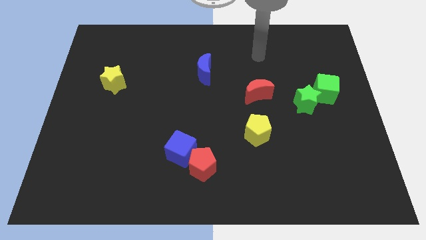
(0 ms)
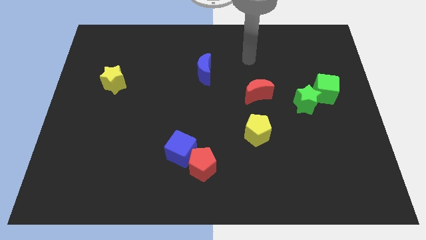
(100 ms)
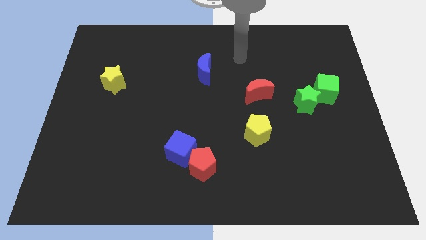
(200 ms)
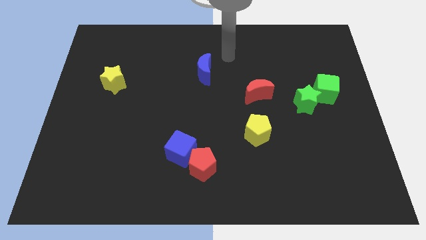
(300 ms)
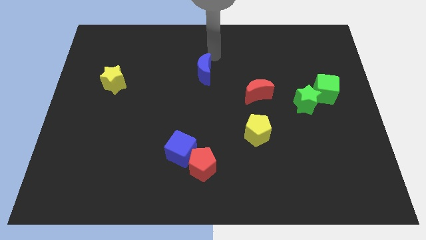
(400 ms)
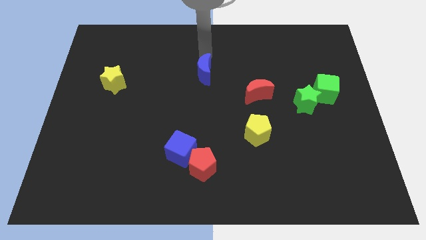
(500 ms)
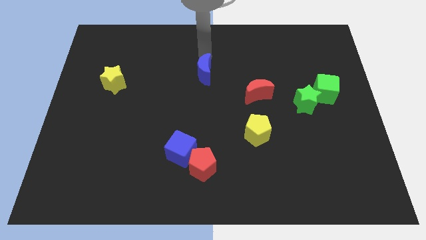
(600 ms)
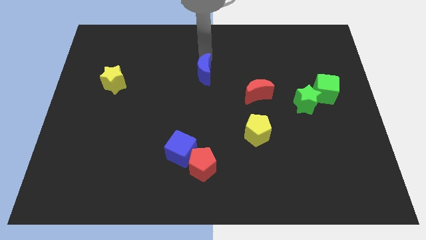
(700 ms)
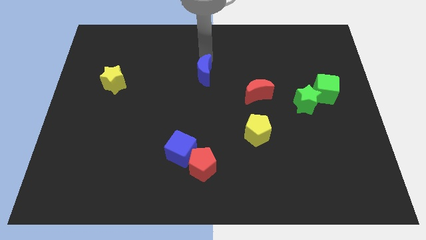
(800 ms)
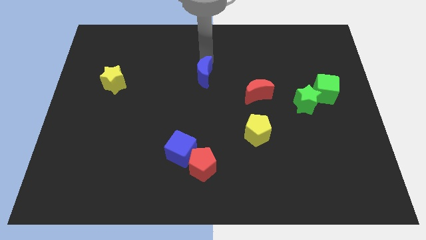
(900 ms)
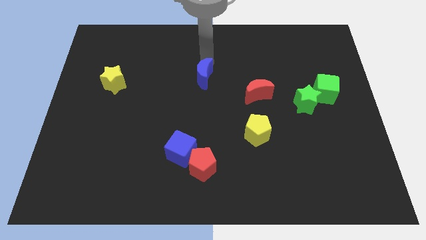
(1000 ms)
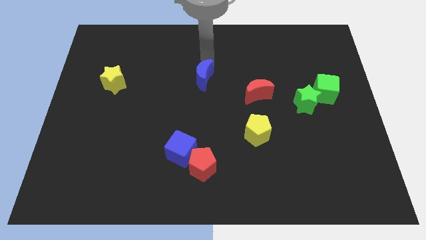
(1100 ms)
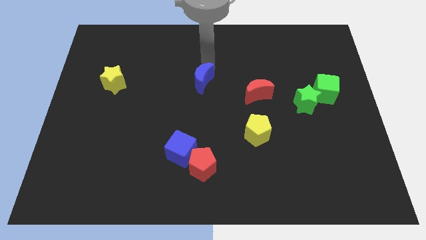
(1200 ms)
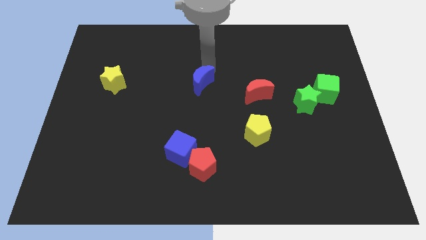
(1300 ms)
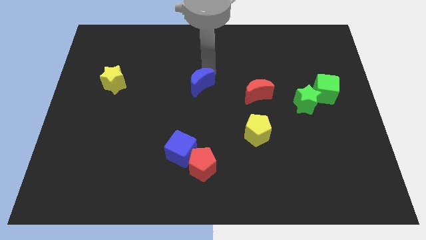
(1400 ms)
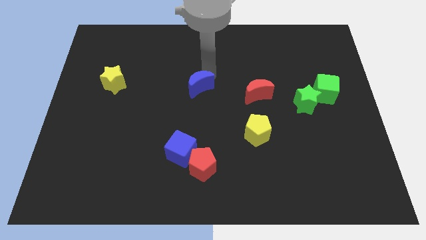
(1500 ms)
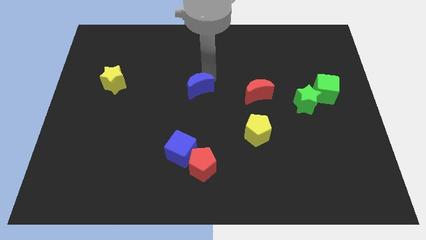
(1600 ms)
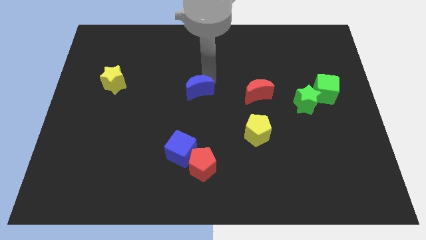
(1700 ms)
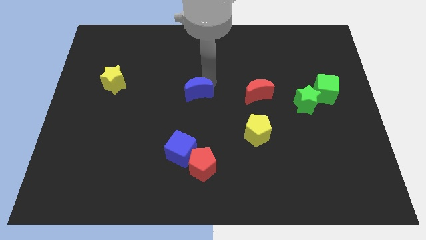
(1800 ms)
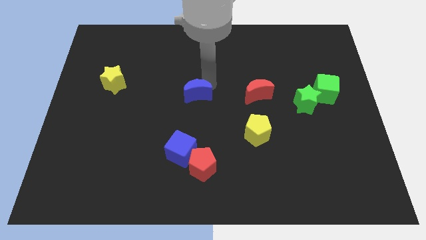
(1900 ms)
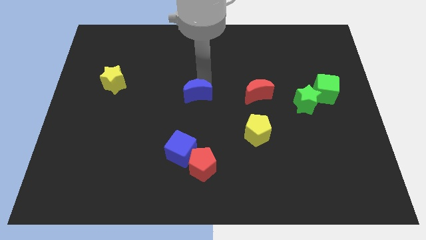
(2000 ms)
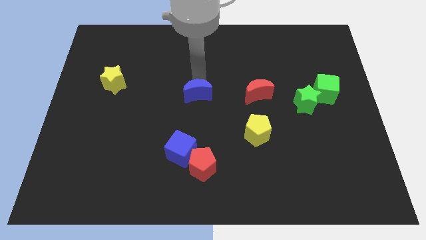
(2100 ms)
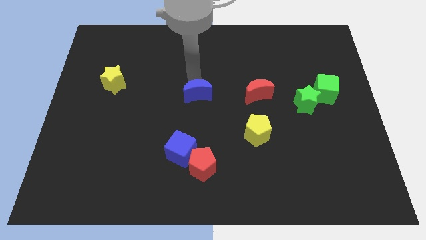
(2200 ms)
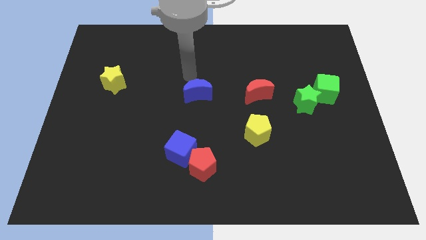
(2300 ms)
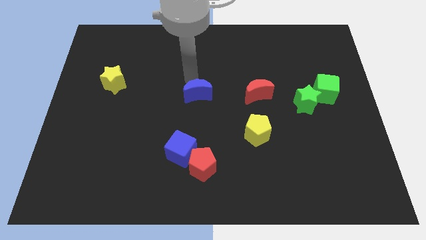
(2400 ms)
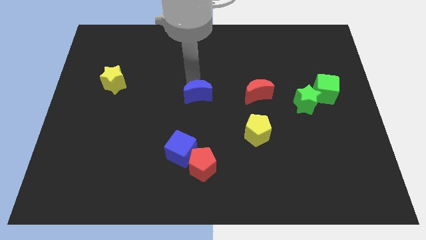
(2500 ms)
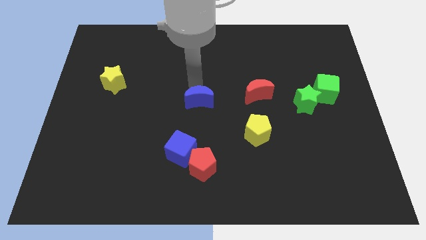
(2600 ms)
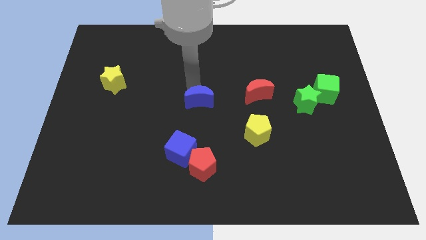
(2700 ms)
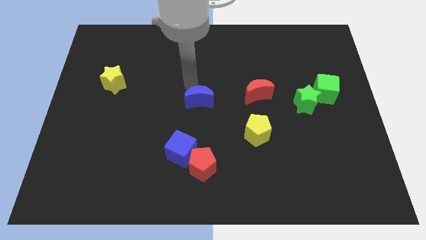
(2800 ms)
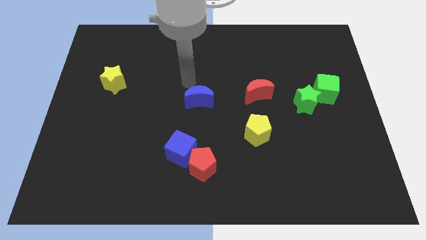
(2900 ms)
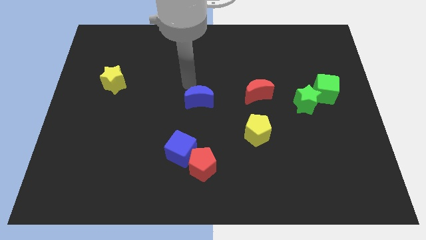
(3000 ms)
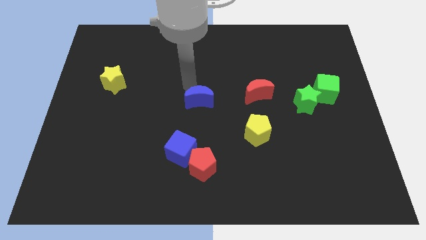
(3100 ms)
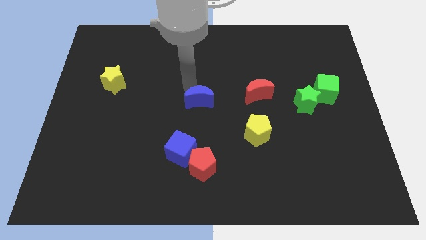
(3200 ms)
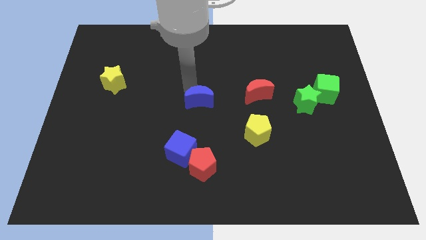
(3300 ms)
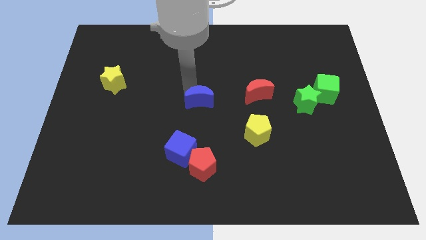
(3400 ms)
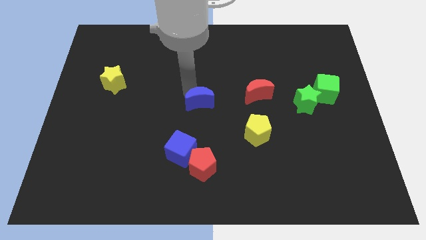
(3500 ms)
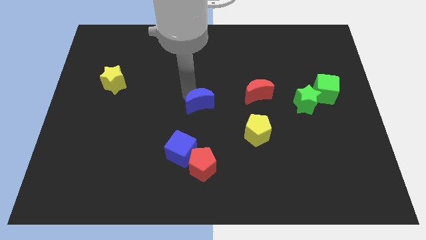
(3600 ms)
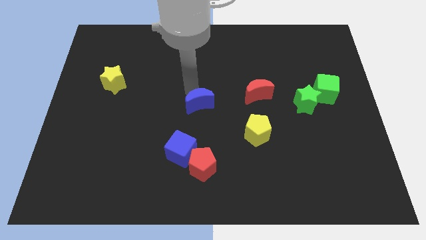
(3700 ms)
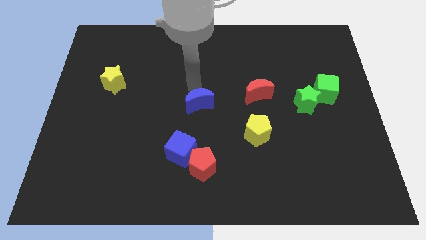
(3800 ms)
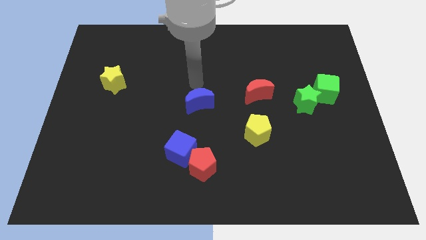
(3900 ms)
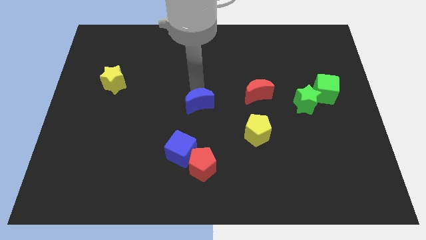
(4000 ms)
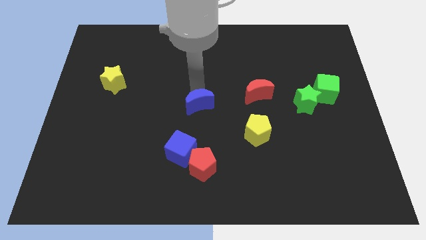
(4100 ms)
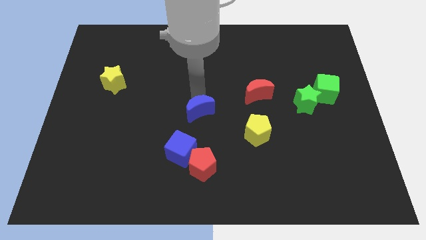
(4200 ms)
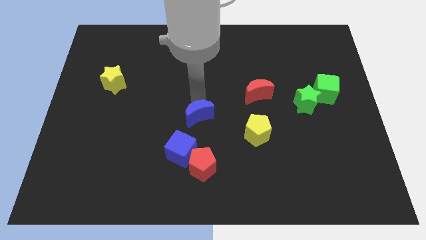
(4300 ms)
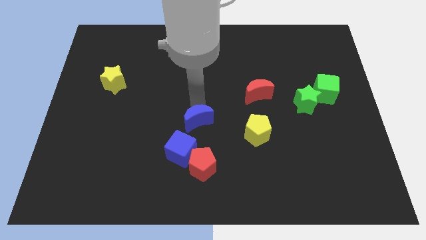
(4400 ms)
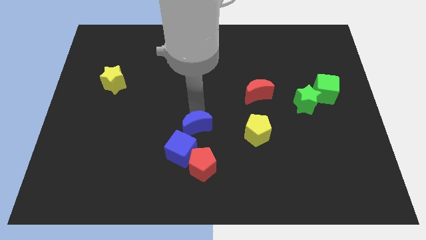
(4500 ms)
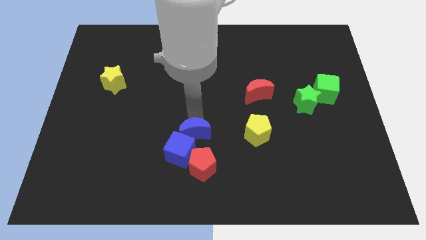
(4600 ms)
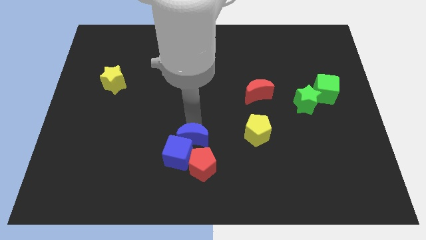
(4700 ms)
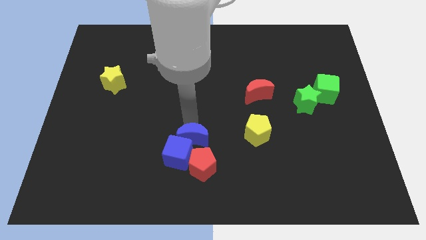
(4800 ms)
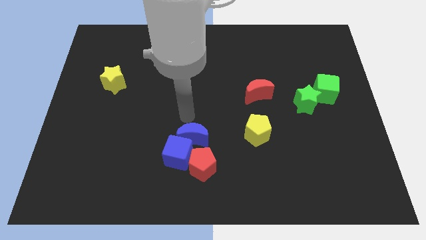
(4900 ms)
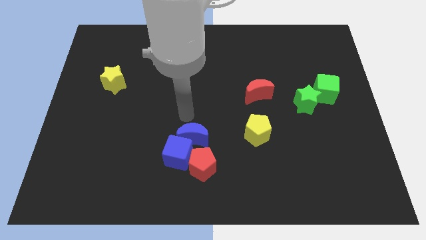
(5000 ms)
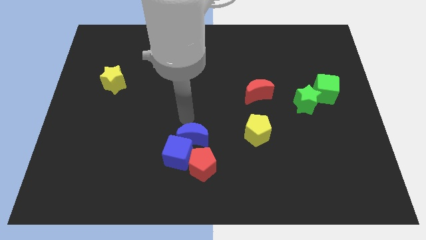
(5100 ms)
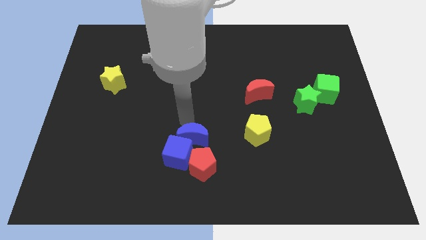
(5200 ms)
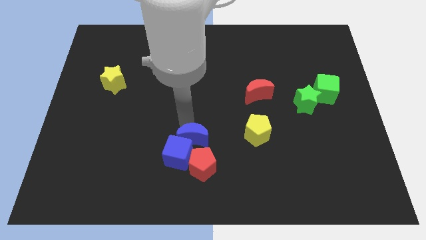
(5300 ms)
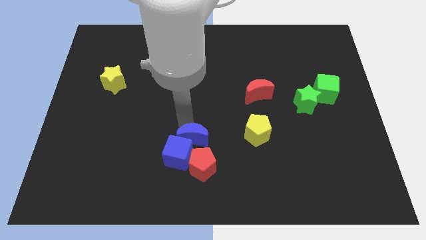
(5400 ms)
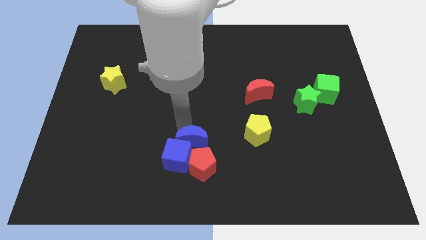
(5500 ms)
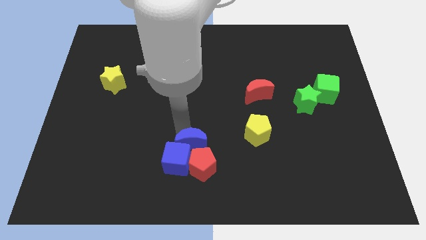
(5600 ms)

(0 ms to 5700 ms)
slide the blue moon next to the red pentagon

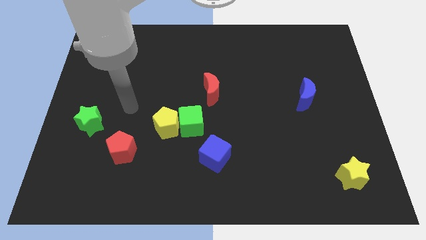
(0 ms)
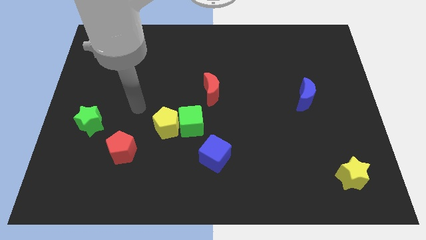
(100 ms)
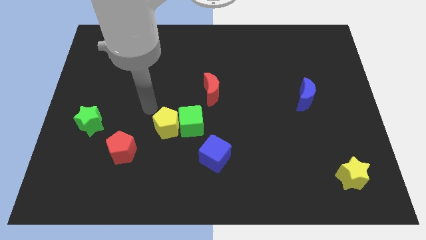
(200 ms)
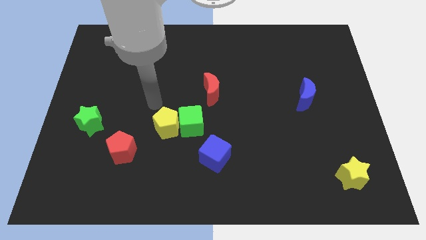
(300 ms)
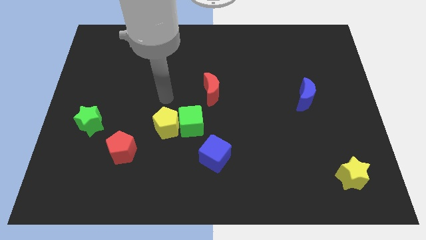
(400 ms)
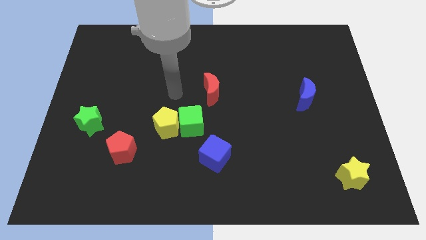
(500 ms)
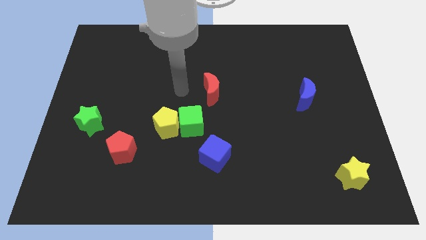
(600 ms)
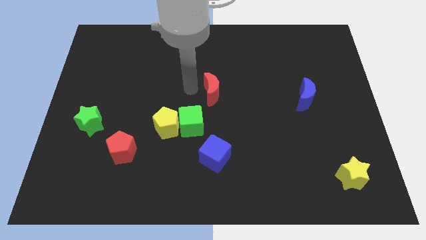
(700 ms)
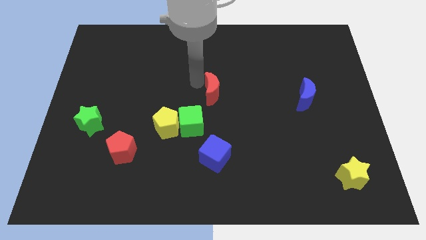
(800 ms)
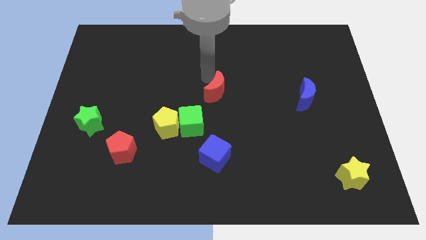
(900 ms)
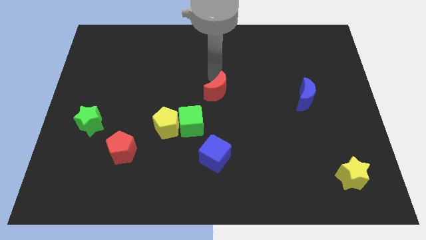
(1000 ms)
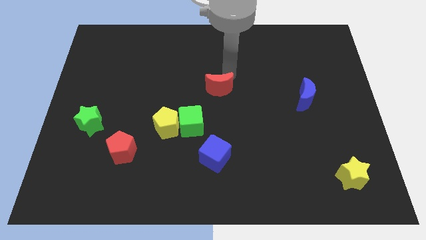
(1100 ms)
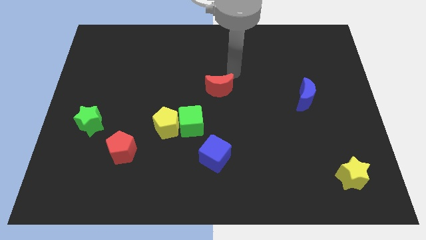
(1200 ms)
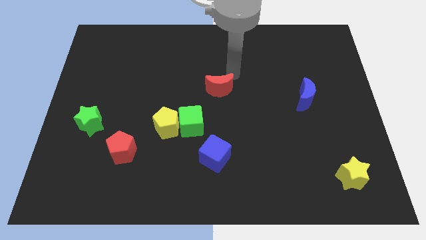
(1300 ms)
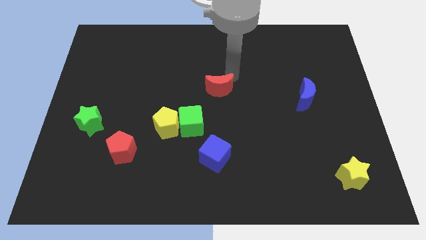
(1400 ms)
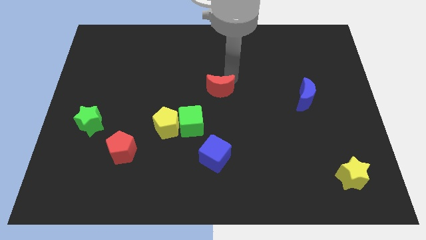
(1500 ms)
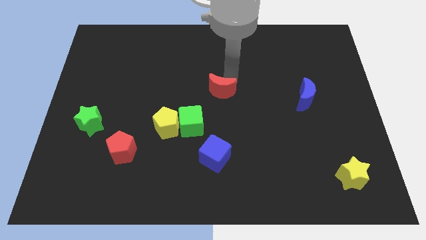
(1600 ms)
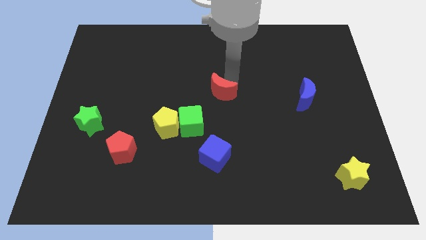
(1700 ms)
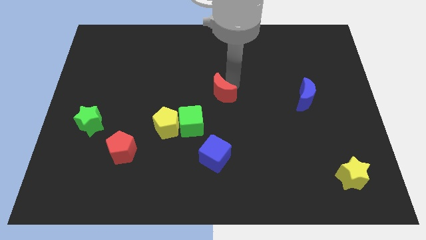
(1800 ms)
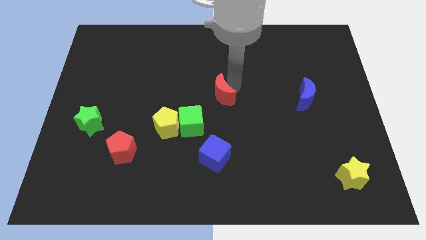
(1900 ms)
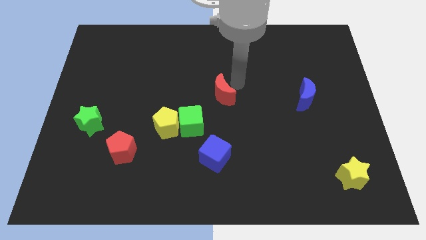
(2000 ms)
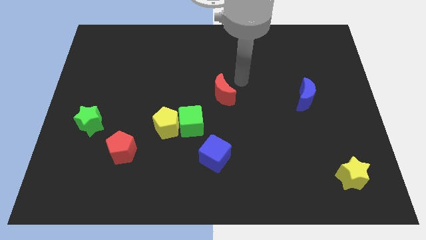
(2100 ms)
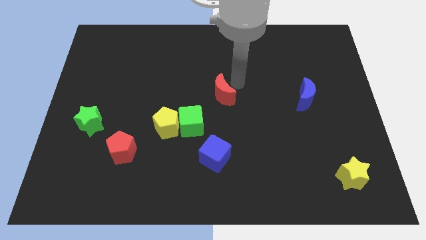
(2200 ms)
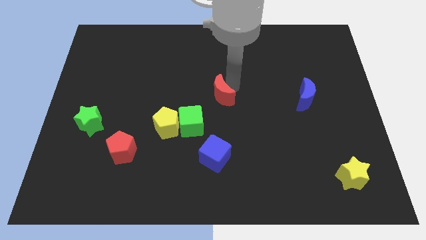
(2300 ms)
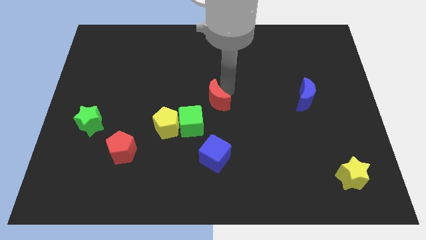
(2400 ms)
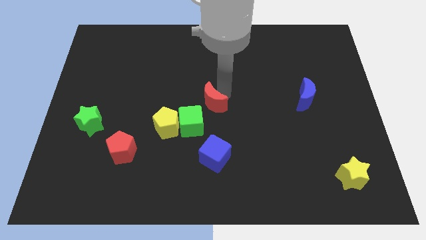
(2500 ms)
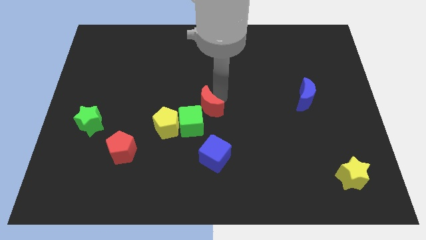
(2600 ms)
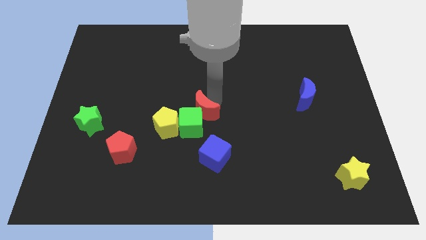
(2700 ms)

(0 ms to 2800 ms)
put the red moon to the green cube
